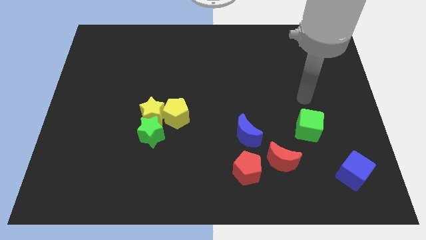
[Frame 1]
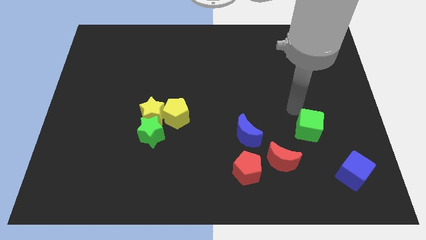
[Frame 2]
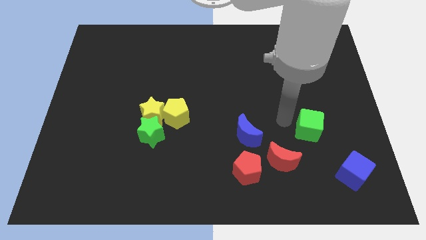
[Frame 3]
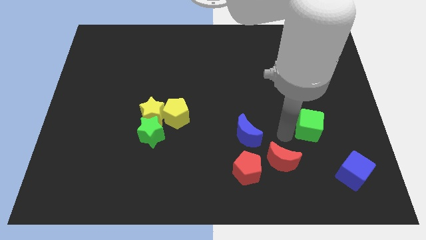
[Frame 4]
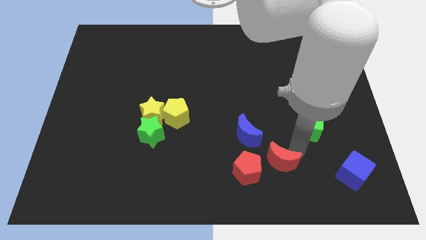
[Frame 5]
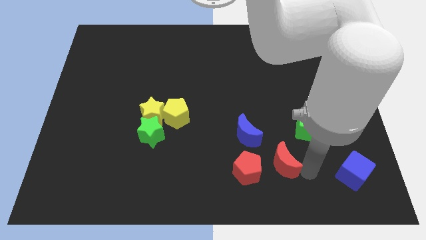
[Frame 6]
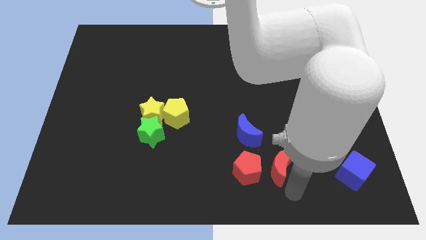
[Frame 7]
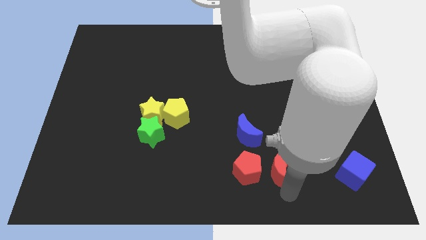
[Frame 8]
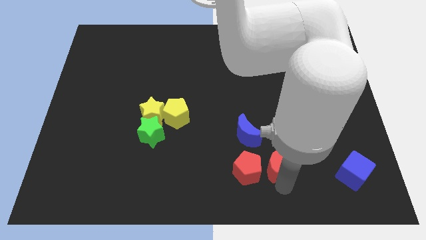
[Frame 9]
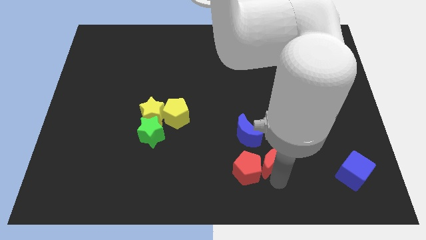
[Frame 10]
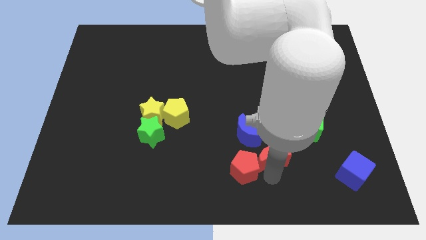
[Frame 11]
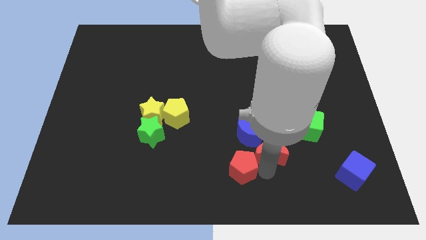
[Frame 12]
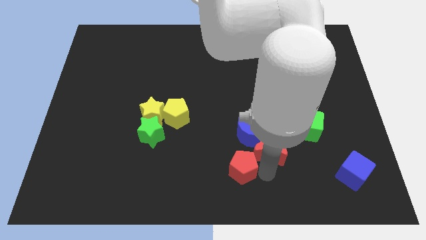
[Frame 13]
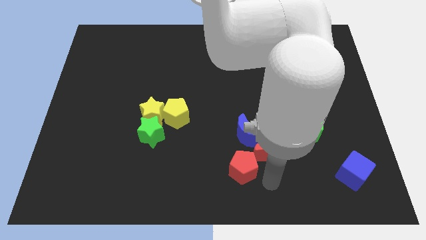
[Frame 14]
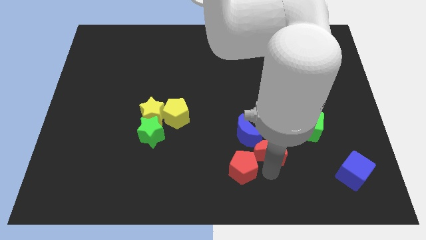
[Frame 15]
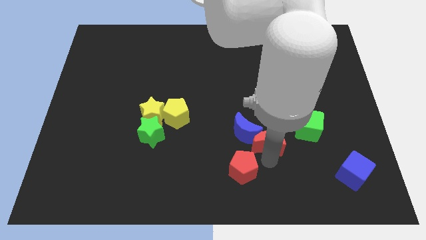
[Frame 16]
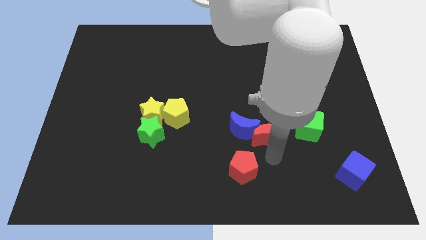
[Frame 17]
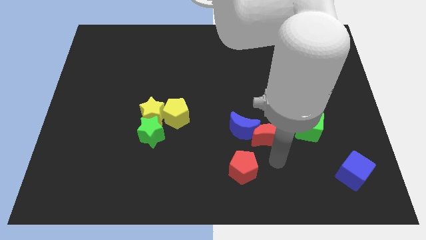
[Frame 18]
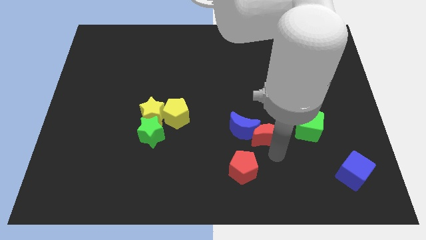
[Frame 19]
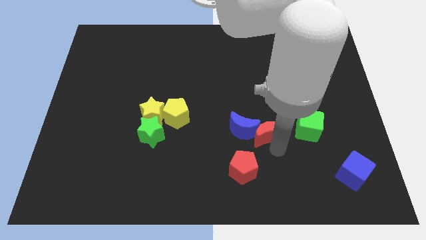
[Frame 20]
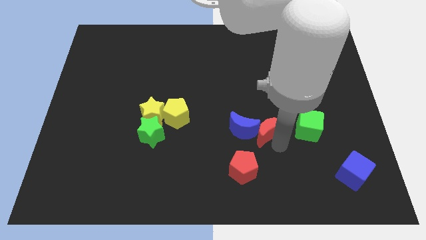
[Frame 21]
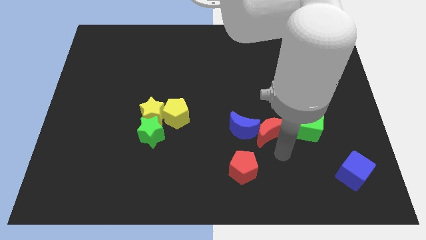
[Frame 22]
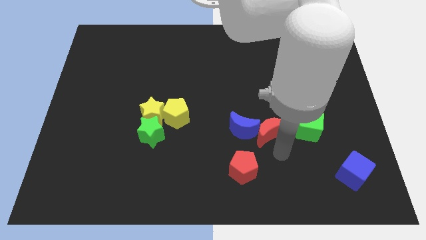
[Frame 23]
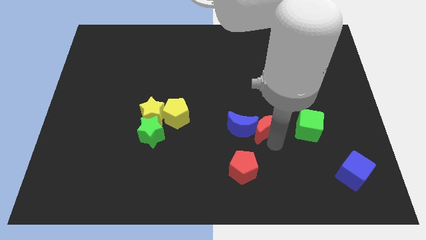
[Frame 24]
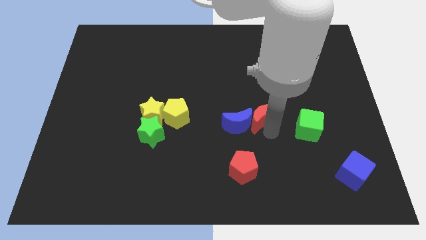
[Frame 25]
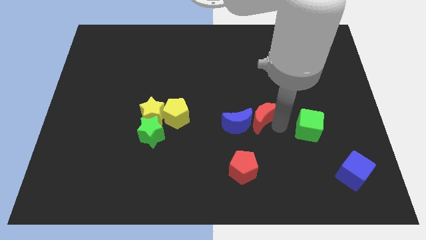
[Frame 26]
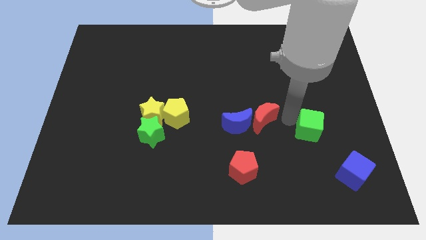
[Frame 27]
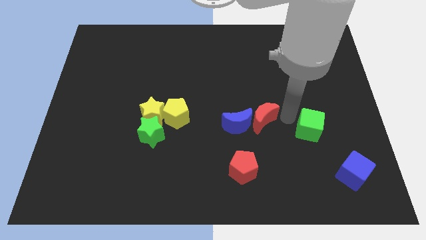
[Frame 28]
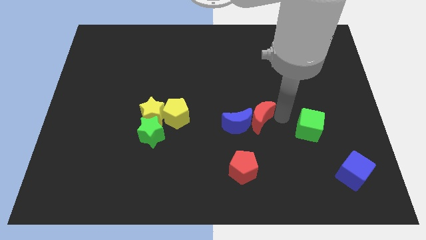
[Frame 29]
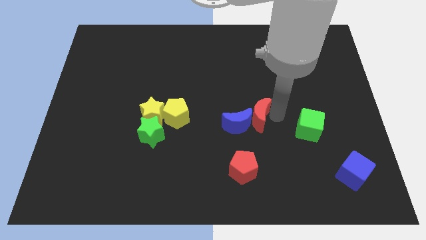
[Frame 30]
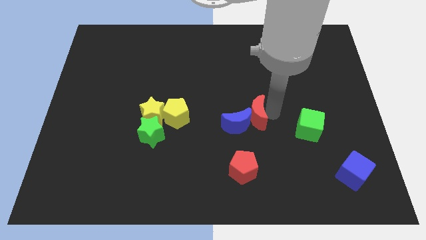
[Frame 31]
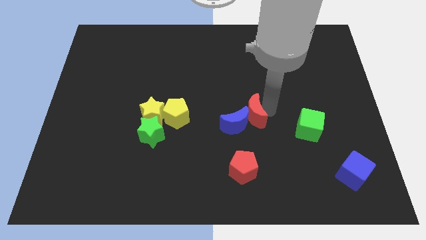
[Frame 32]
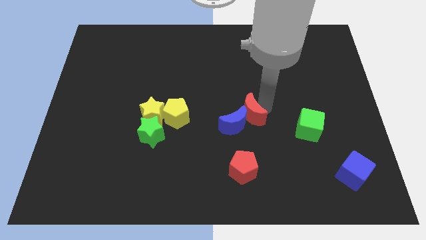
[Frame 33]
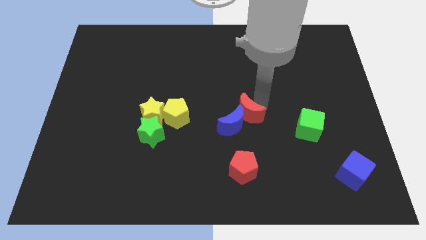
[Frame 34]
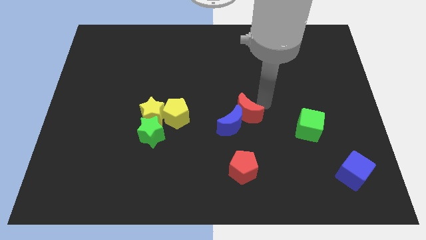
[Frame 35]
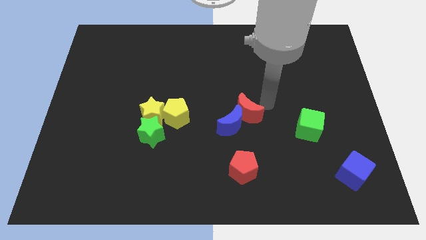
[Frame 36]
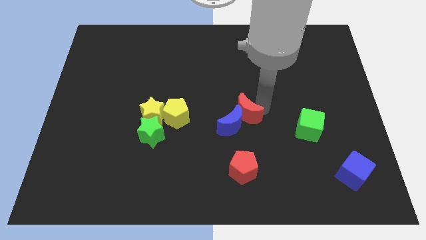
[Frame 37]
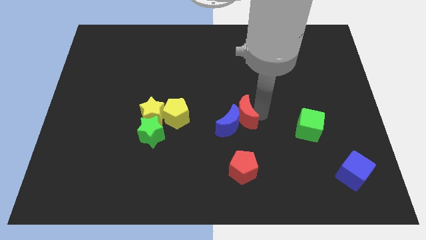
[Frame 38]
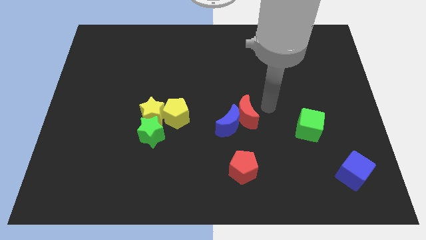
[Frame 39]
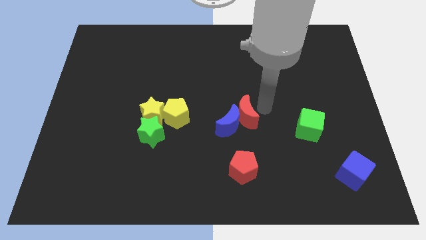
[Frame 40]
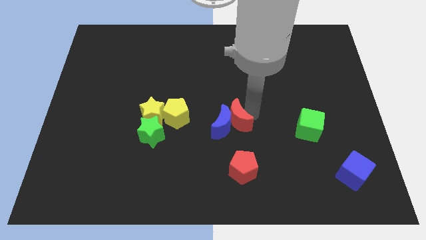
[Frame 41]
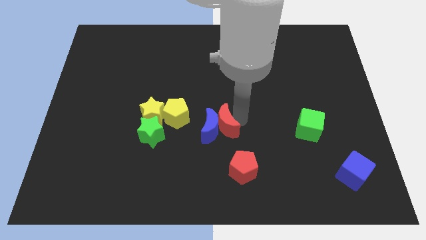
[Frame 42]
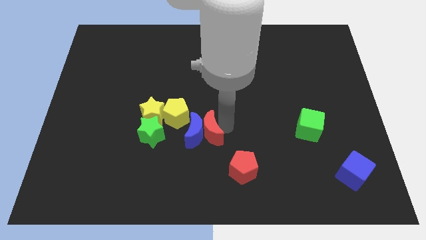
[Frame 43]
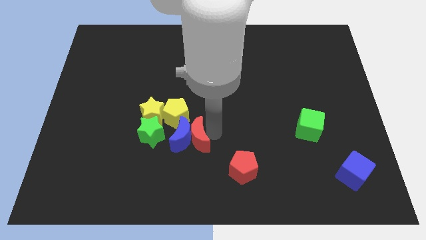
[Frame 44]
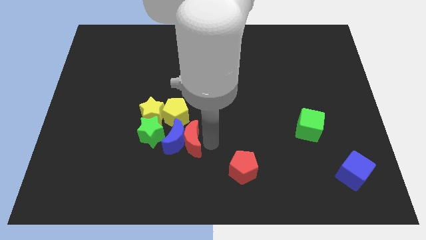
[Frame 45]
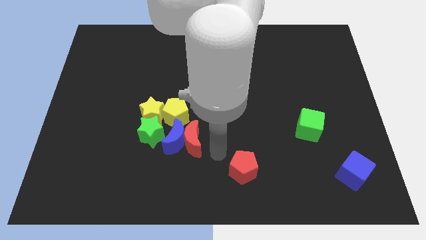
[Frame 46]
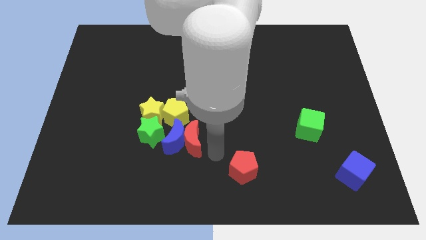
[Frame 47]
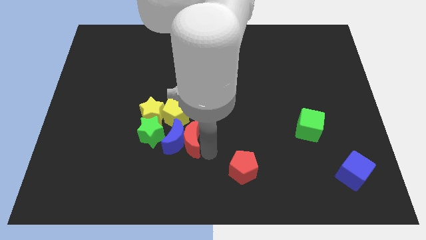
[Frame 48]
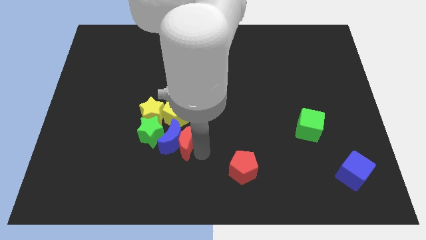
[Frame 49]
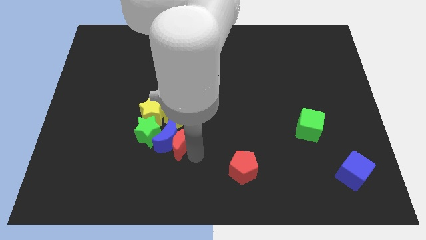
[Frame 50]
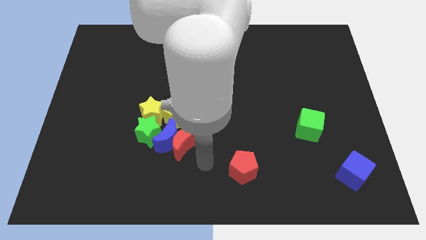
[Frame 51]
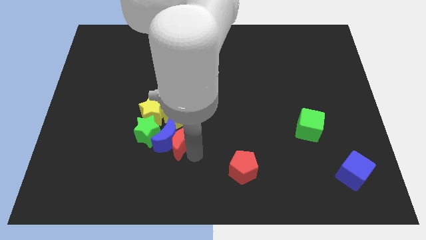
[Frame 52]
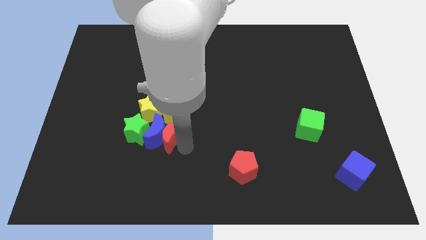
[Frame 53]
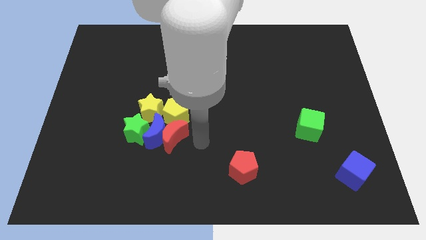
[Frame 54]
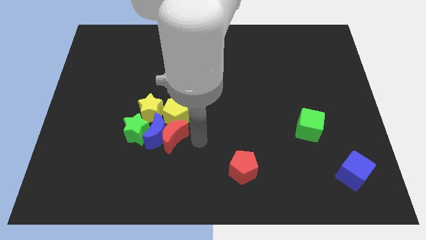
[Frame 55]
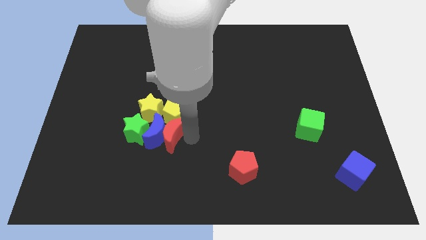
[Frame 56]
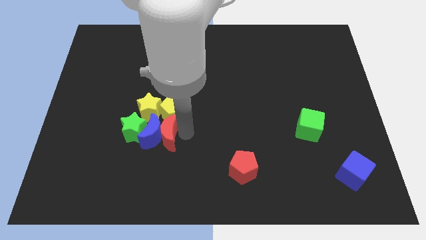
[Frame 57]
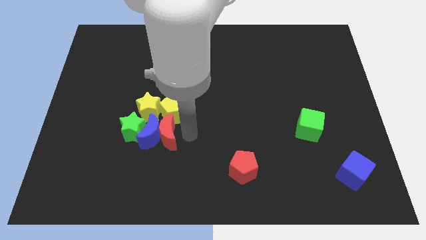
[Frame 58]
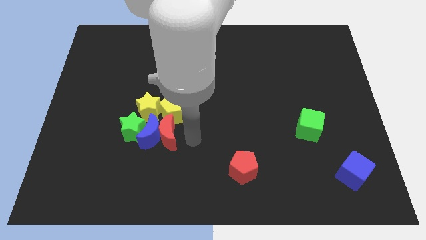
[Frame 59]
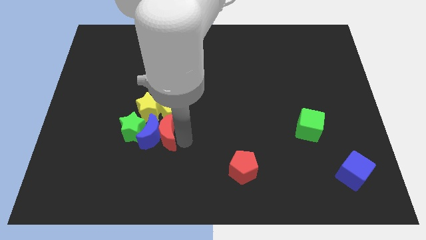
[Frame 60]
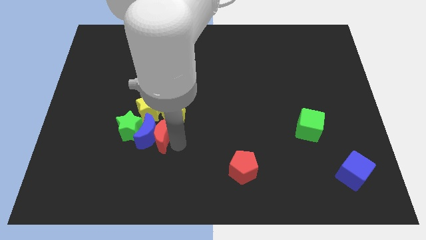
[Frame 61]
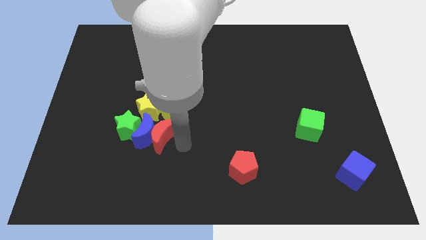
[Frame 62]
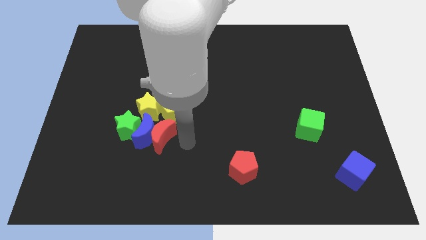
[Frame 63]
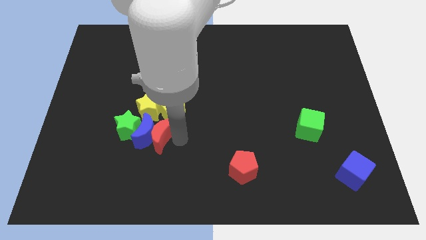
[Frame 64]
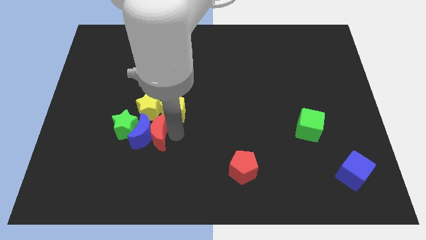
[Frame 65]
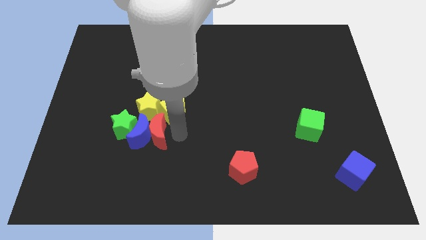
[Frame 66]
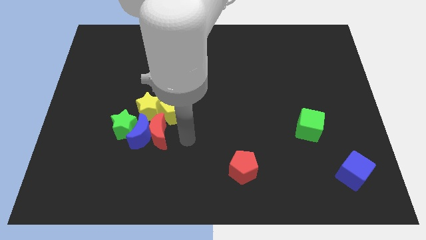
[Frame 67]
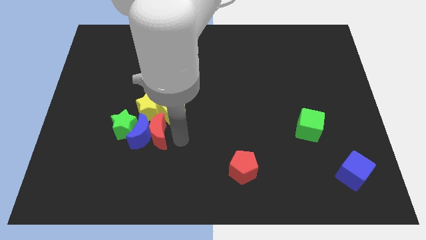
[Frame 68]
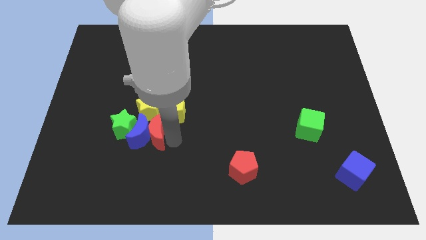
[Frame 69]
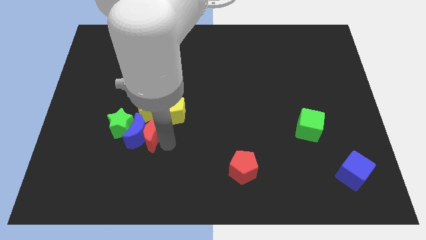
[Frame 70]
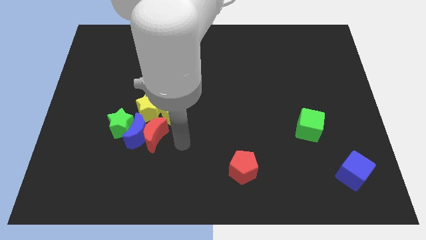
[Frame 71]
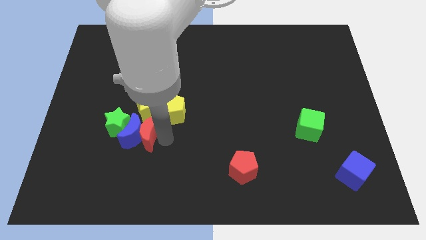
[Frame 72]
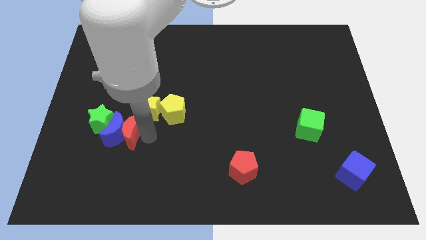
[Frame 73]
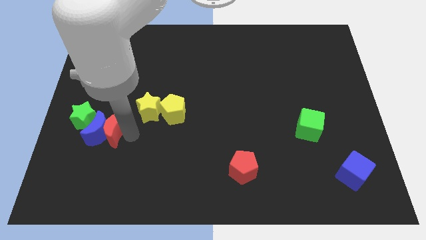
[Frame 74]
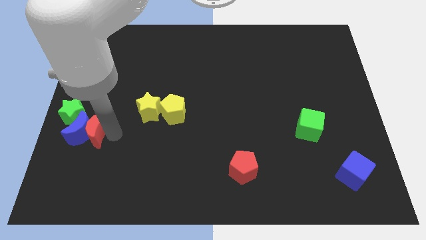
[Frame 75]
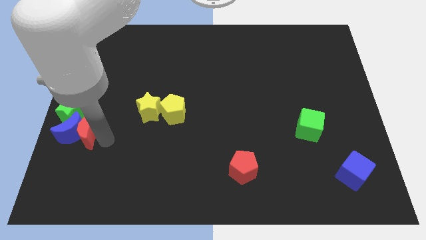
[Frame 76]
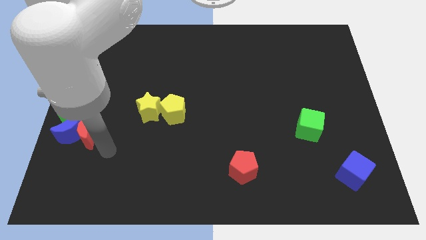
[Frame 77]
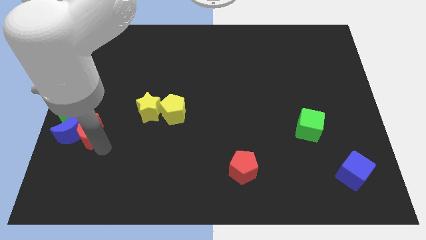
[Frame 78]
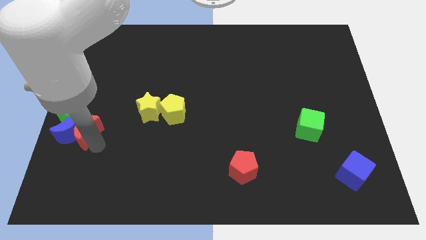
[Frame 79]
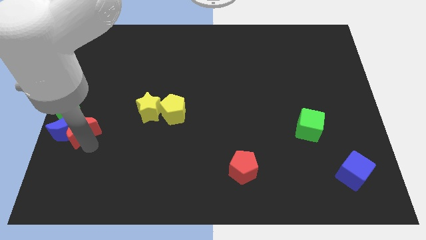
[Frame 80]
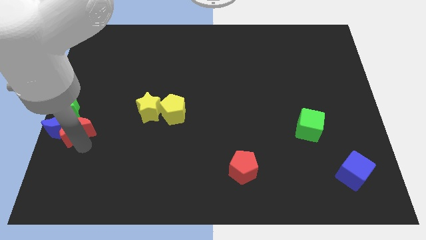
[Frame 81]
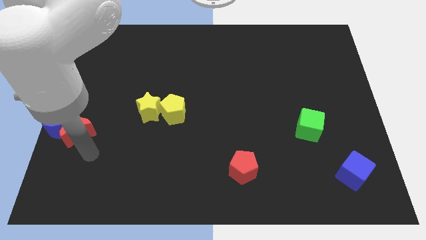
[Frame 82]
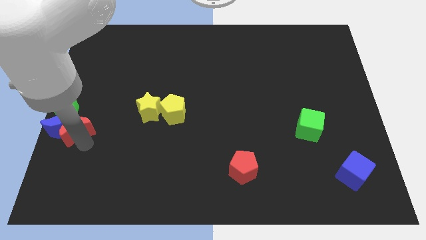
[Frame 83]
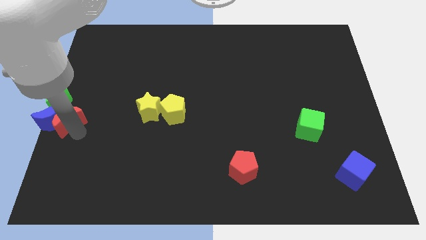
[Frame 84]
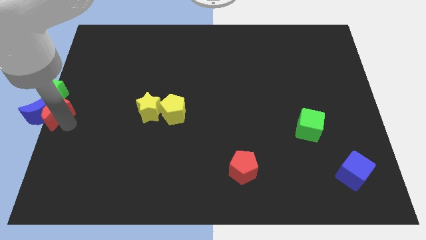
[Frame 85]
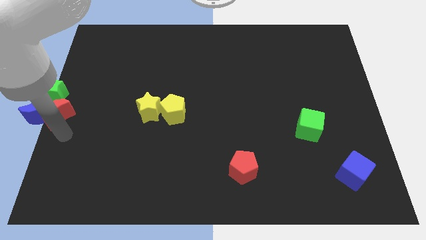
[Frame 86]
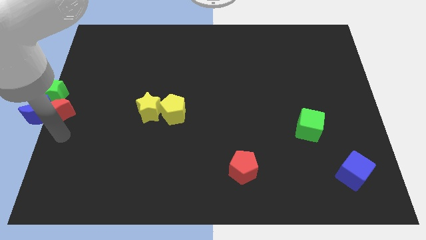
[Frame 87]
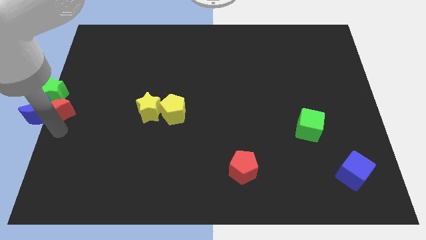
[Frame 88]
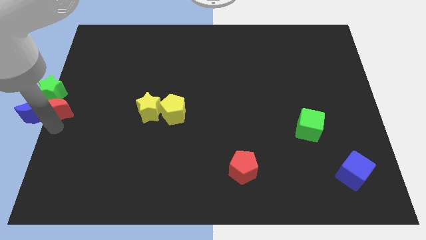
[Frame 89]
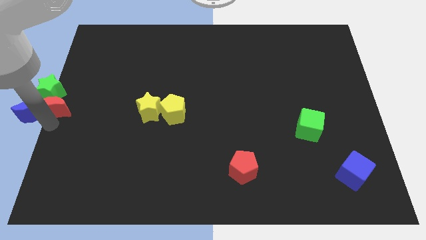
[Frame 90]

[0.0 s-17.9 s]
put the red moon towards the green star
